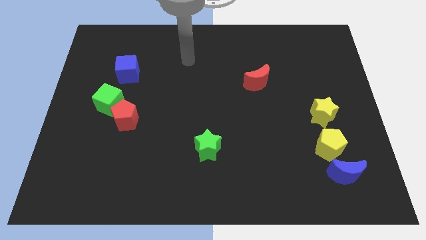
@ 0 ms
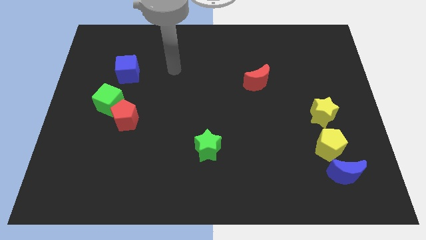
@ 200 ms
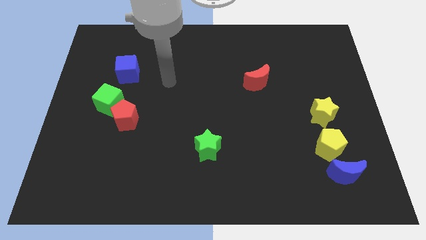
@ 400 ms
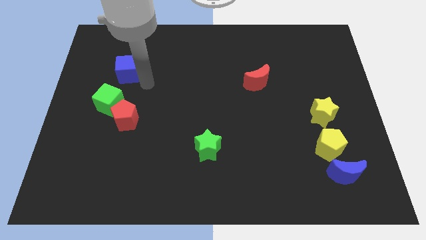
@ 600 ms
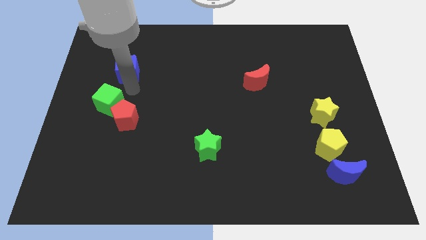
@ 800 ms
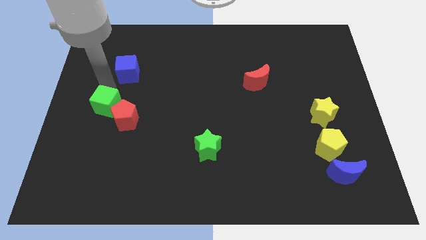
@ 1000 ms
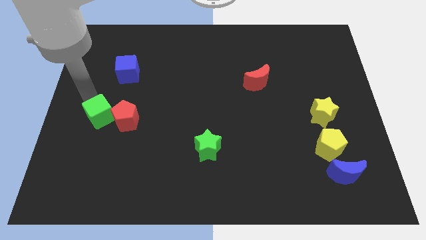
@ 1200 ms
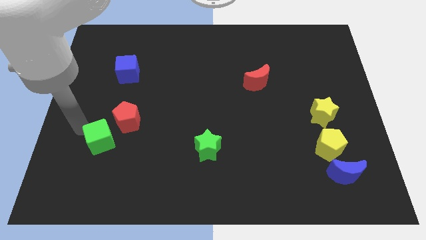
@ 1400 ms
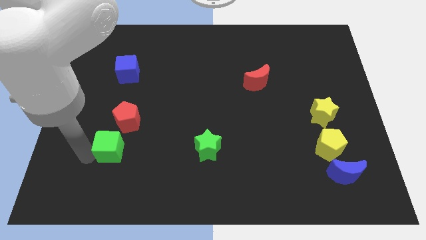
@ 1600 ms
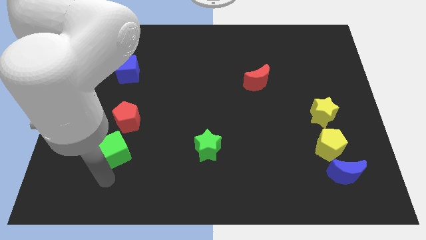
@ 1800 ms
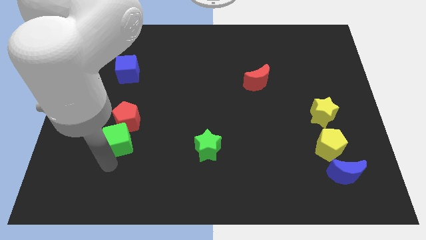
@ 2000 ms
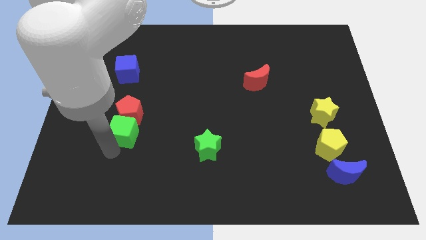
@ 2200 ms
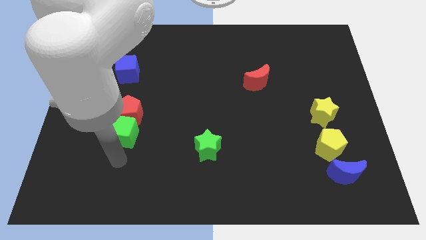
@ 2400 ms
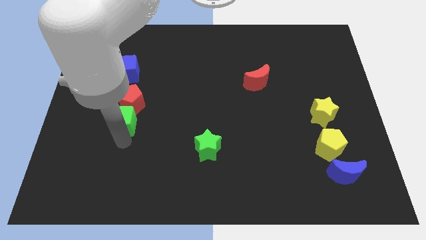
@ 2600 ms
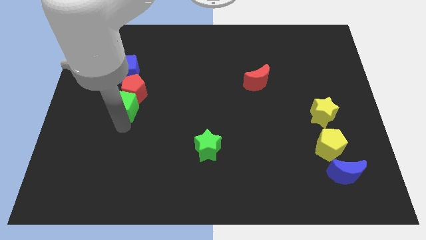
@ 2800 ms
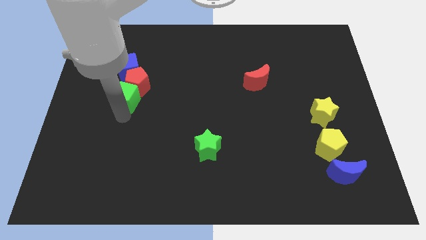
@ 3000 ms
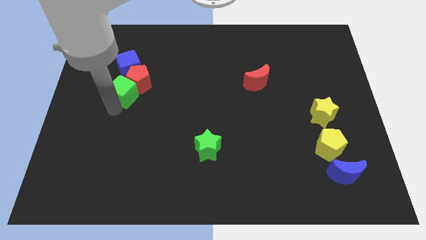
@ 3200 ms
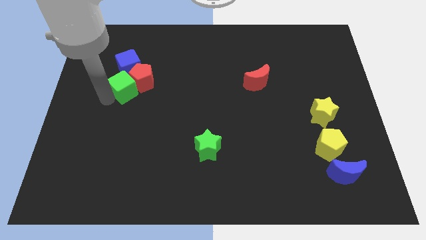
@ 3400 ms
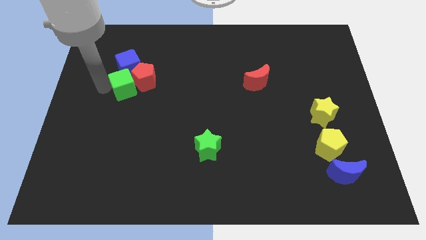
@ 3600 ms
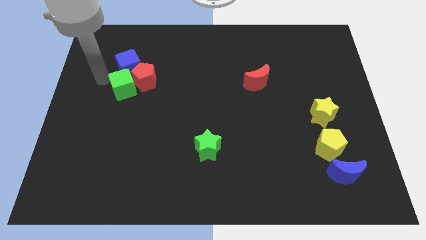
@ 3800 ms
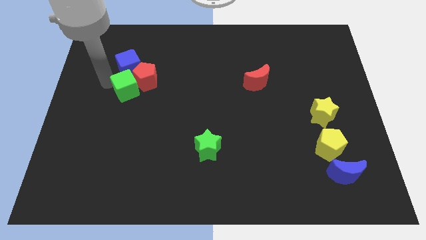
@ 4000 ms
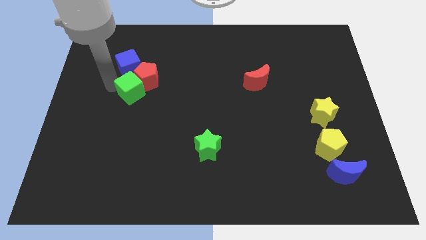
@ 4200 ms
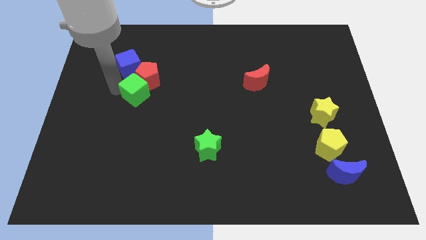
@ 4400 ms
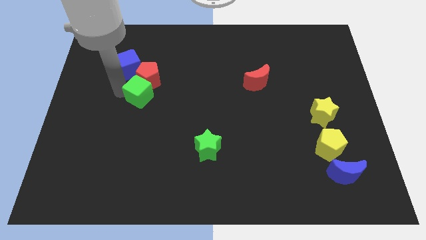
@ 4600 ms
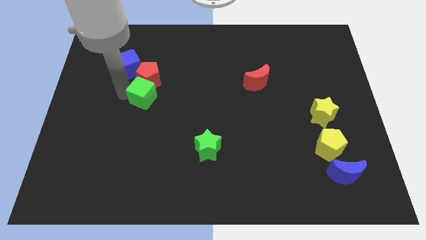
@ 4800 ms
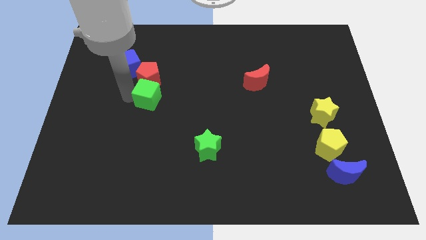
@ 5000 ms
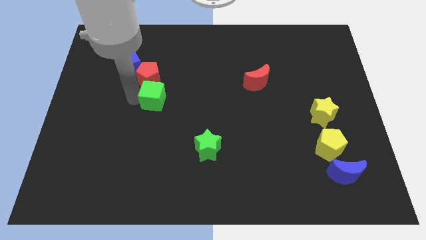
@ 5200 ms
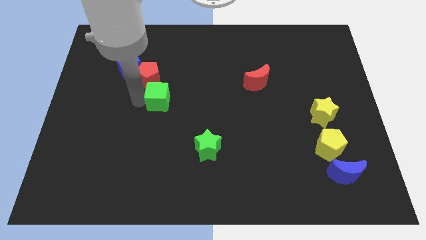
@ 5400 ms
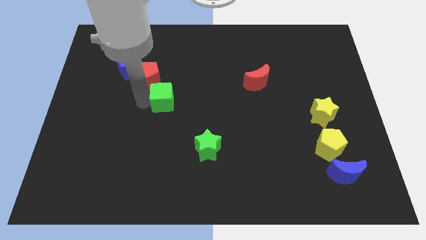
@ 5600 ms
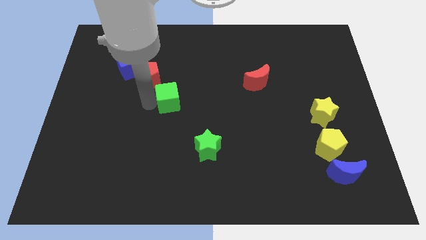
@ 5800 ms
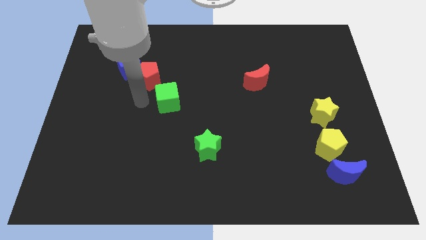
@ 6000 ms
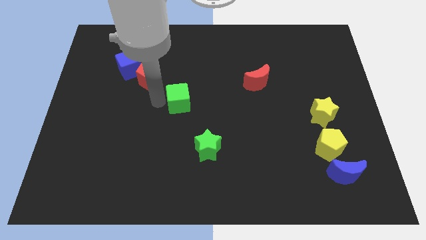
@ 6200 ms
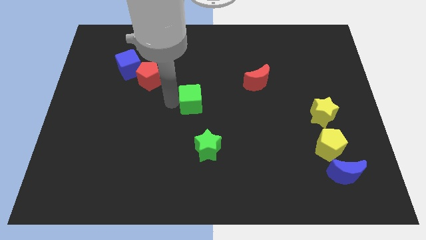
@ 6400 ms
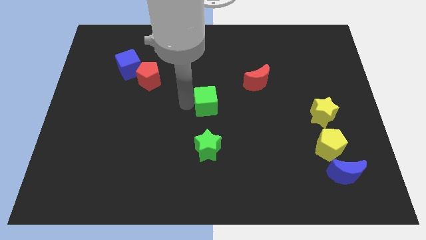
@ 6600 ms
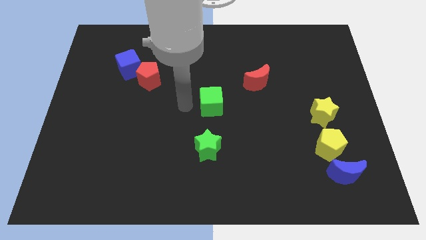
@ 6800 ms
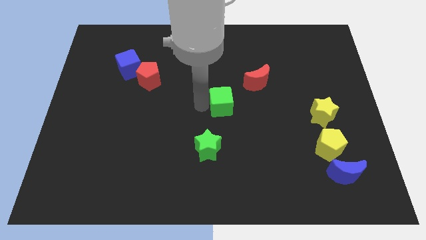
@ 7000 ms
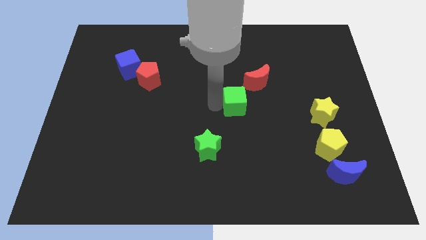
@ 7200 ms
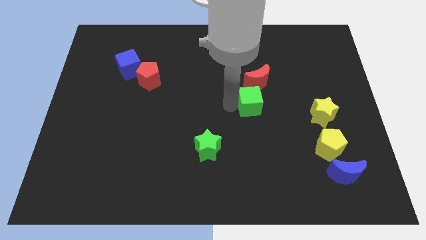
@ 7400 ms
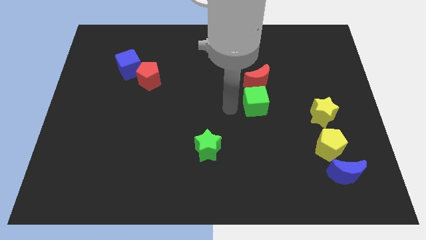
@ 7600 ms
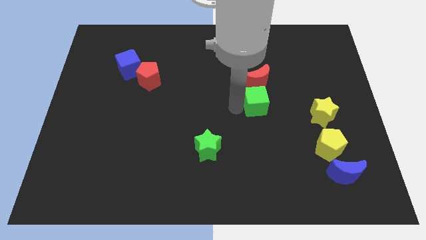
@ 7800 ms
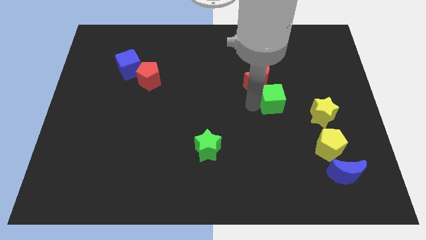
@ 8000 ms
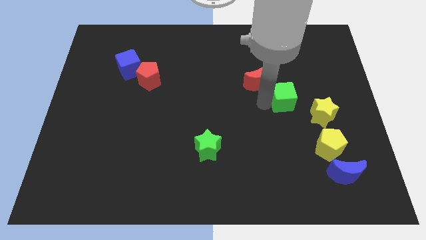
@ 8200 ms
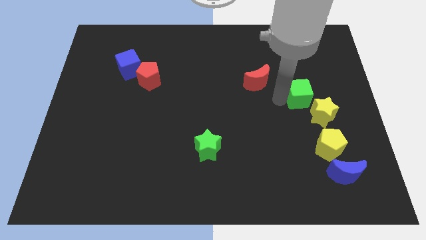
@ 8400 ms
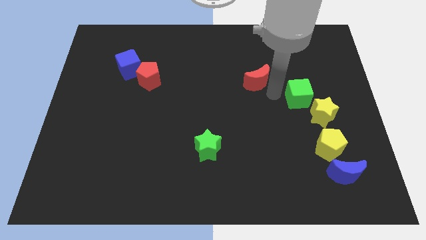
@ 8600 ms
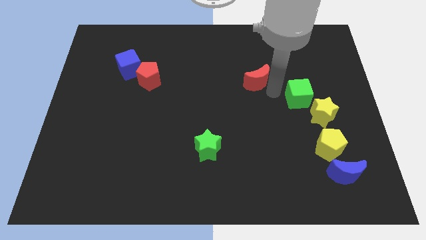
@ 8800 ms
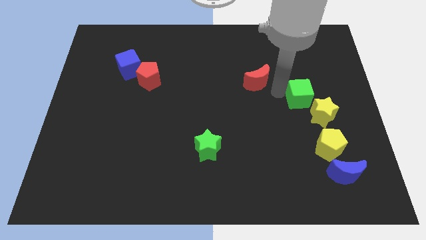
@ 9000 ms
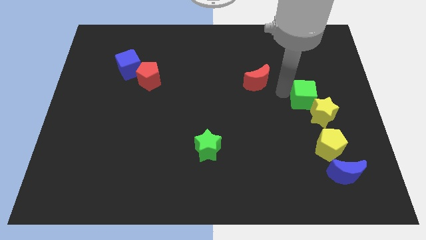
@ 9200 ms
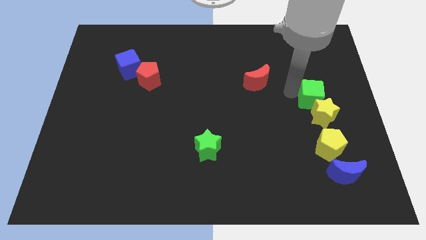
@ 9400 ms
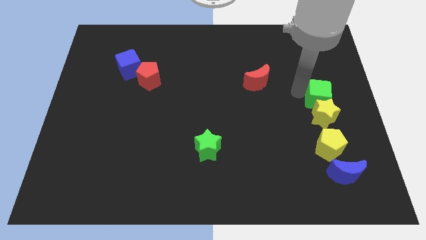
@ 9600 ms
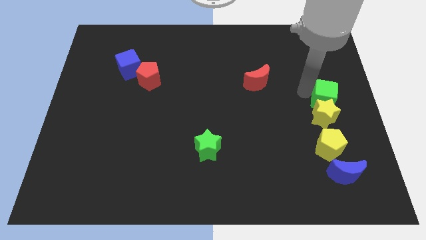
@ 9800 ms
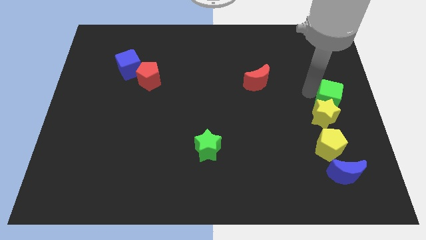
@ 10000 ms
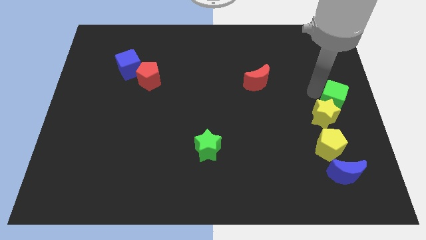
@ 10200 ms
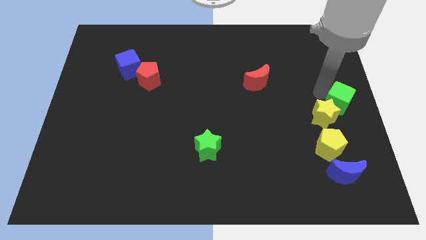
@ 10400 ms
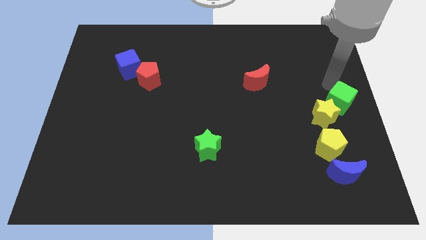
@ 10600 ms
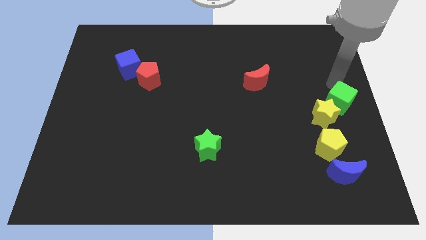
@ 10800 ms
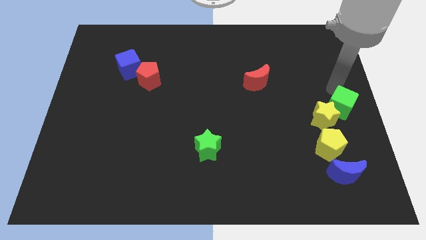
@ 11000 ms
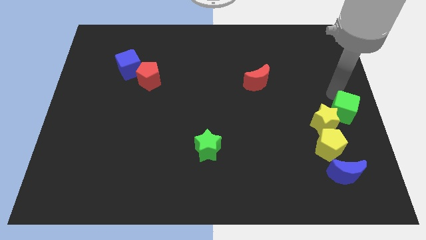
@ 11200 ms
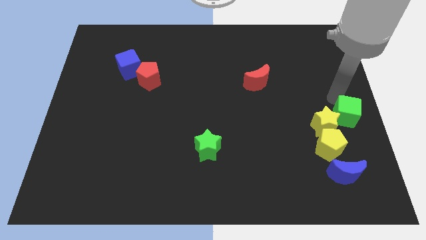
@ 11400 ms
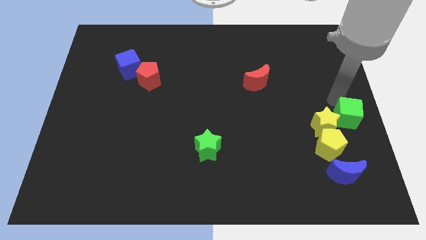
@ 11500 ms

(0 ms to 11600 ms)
push the green cube above the blue moon

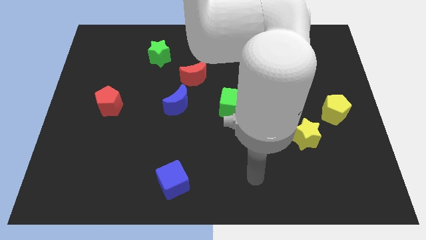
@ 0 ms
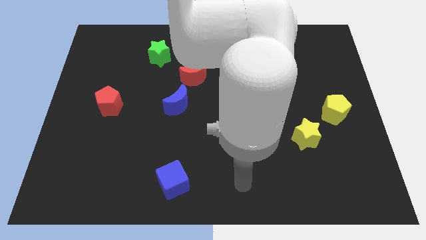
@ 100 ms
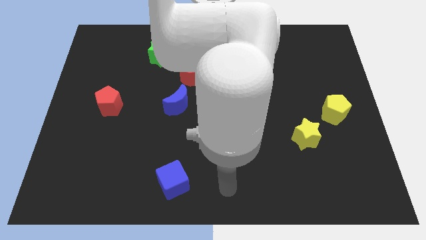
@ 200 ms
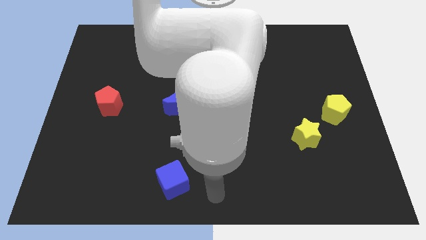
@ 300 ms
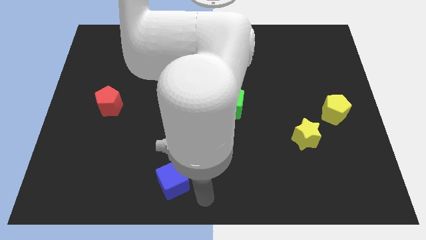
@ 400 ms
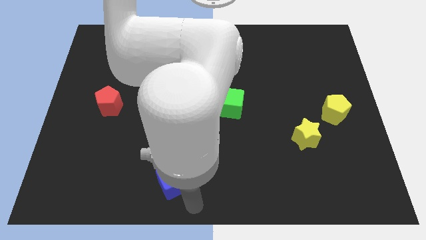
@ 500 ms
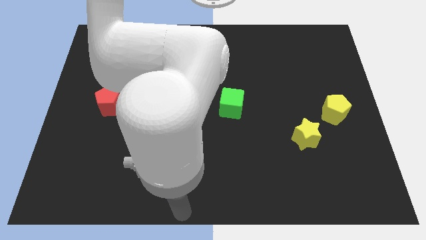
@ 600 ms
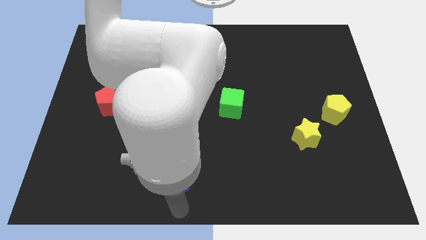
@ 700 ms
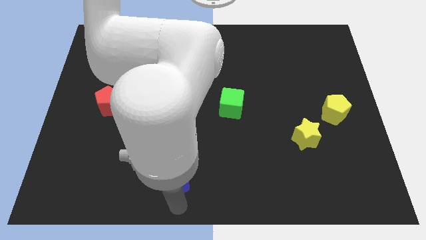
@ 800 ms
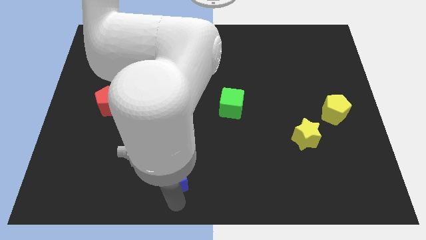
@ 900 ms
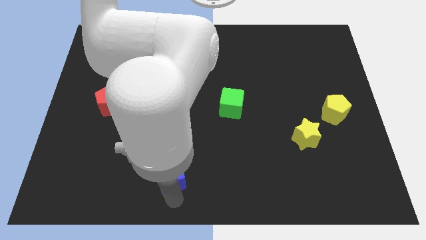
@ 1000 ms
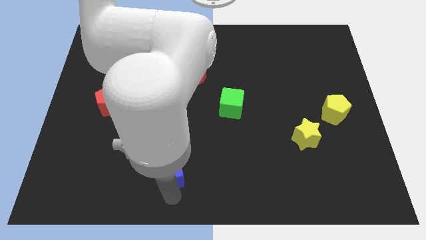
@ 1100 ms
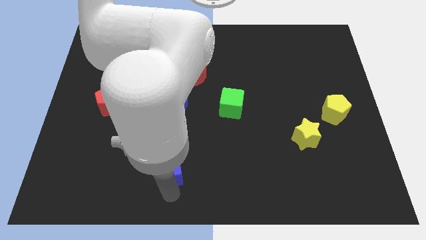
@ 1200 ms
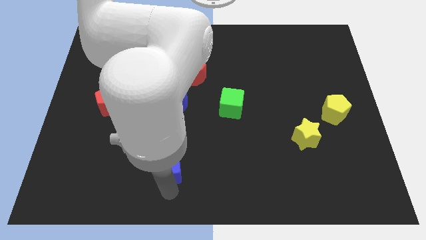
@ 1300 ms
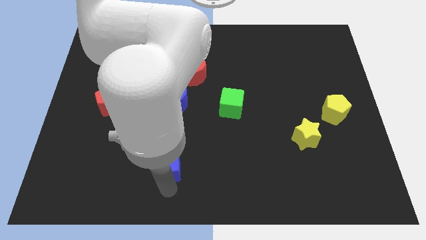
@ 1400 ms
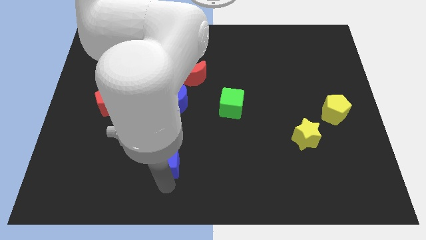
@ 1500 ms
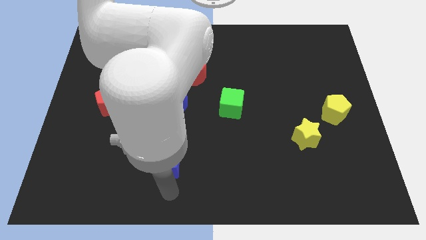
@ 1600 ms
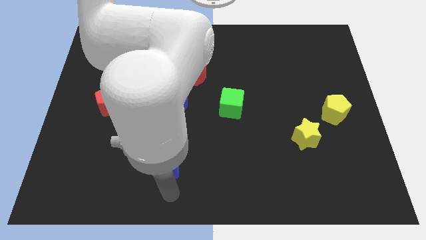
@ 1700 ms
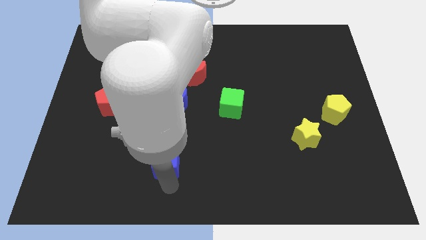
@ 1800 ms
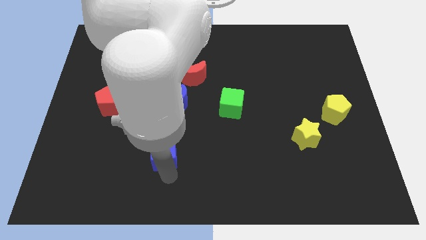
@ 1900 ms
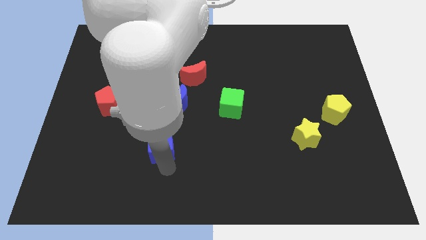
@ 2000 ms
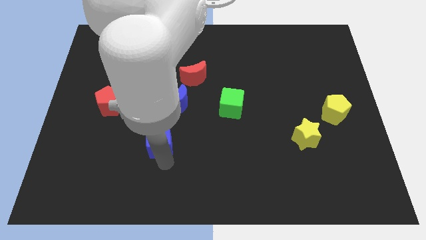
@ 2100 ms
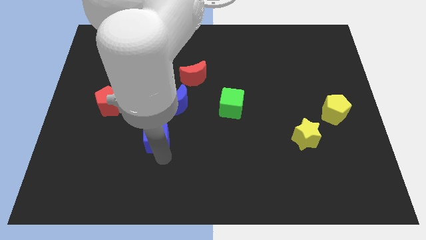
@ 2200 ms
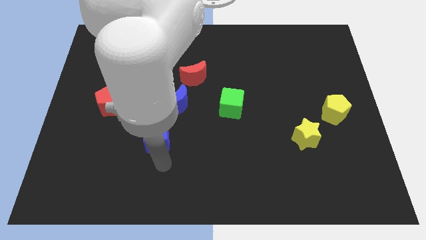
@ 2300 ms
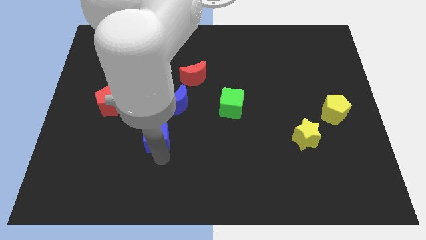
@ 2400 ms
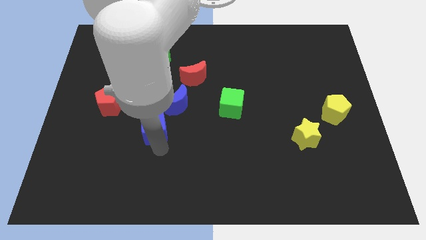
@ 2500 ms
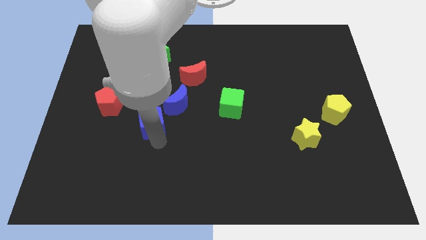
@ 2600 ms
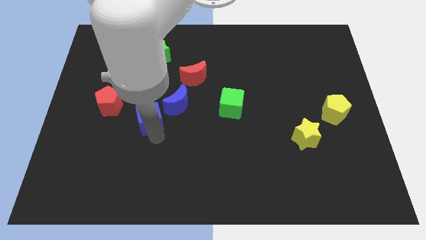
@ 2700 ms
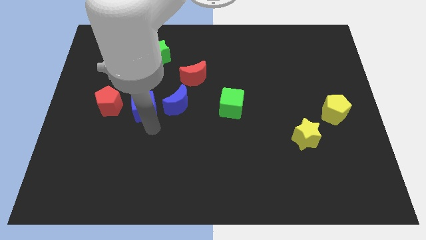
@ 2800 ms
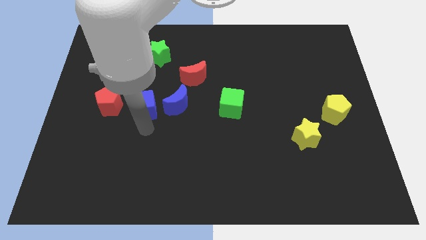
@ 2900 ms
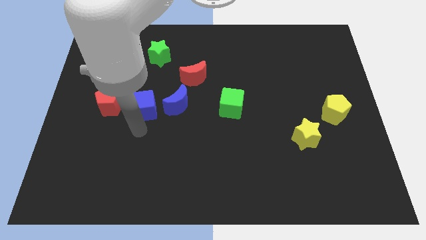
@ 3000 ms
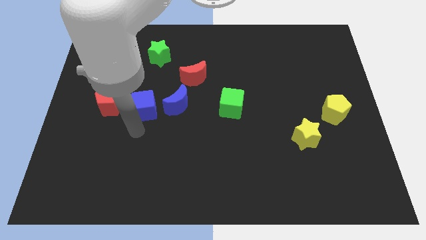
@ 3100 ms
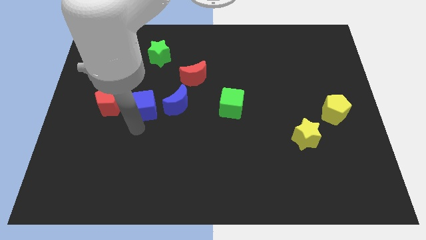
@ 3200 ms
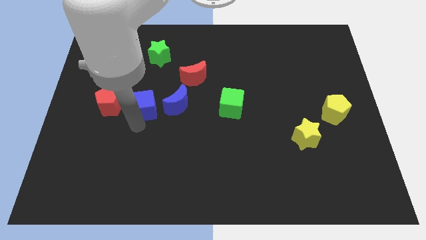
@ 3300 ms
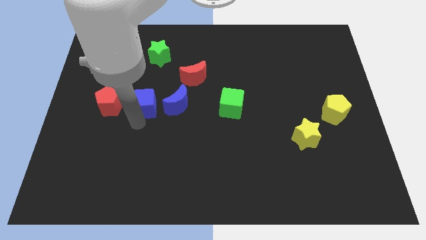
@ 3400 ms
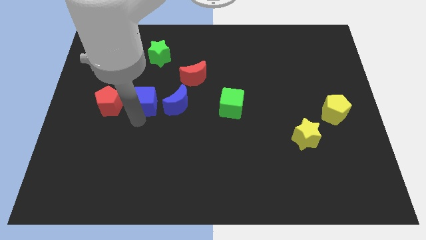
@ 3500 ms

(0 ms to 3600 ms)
put the blue cube to the bottom side of the green star
